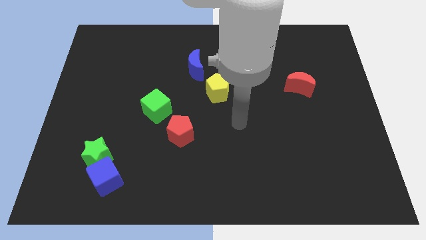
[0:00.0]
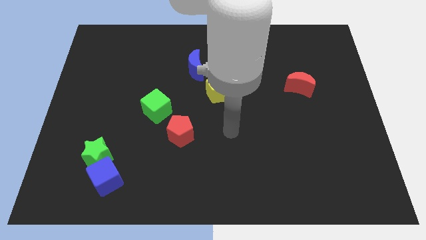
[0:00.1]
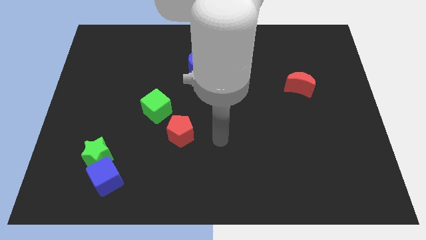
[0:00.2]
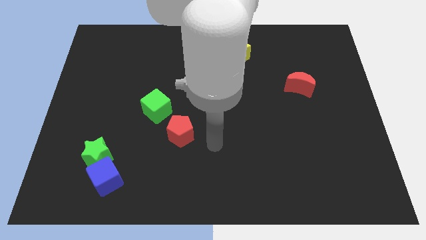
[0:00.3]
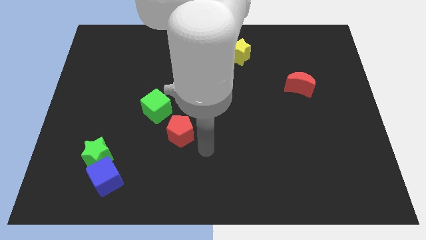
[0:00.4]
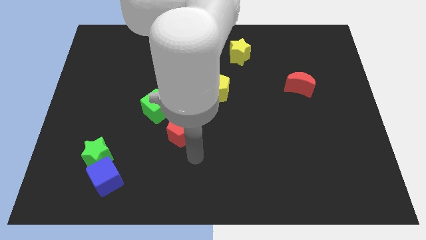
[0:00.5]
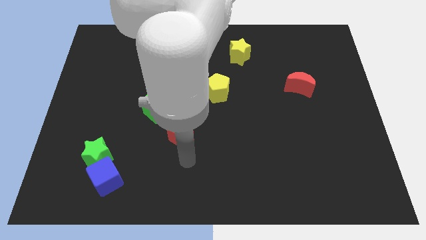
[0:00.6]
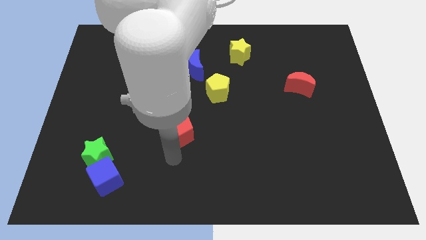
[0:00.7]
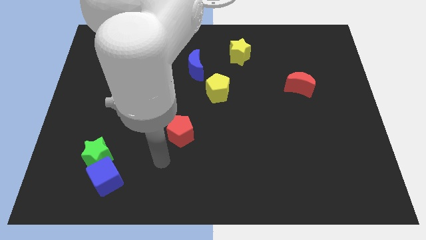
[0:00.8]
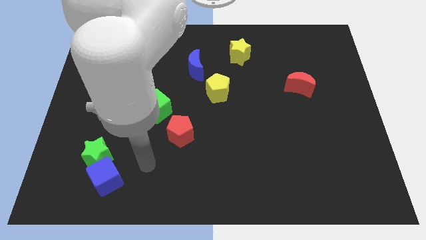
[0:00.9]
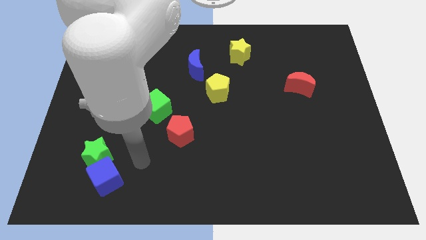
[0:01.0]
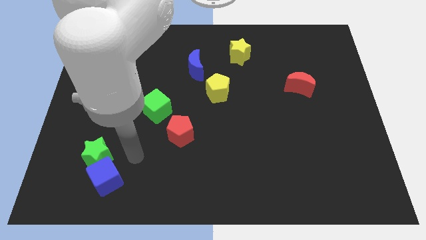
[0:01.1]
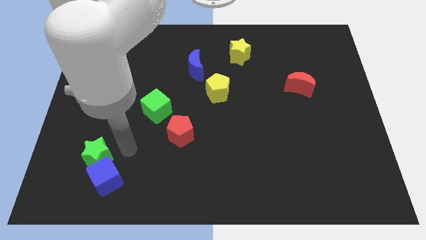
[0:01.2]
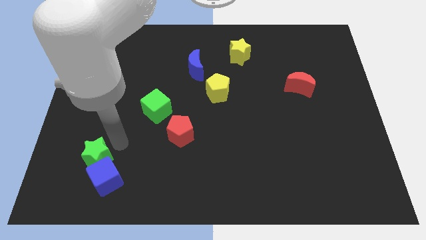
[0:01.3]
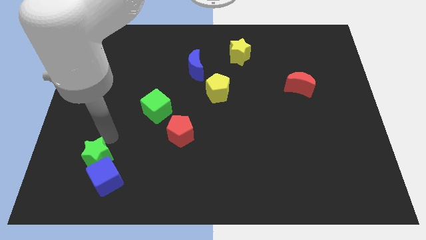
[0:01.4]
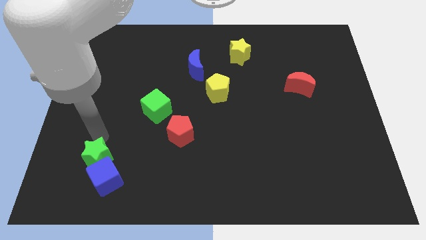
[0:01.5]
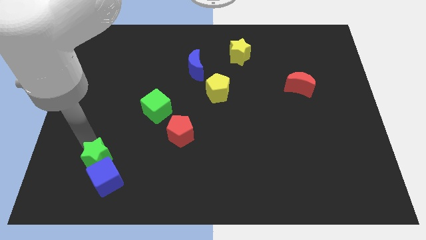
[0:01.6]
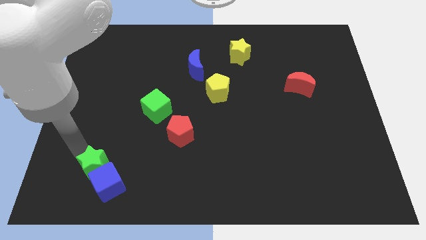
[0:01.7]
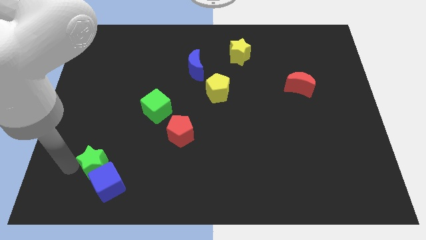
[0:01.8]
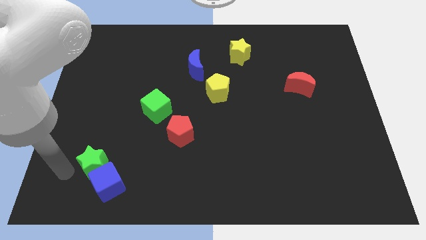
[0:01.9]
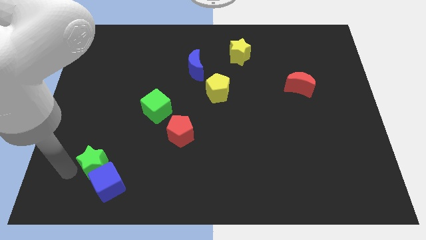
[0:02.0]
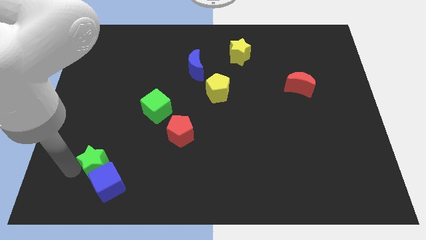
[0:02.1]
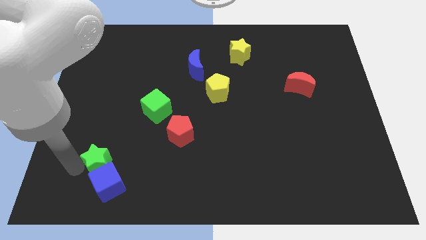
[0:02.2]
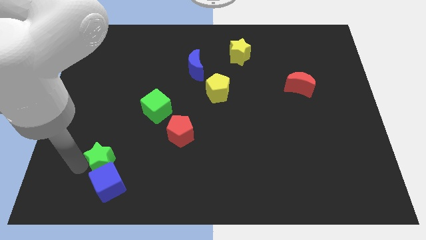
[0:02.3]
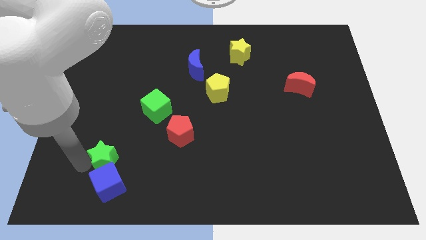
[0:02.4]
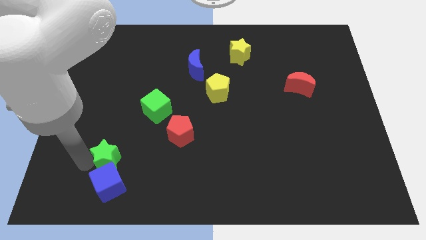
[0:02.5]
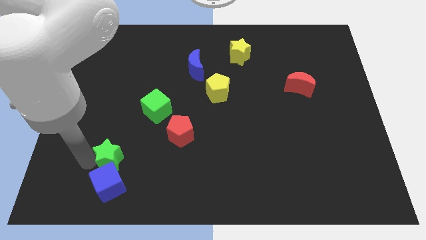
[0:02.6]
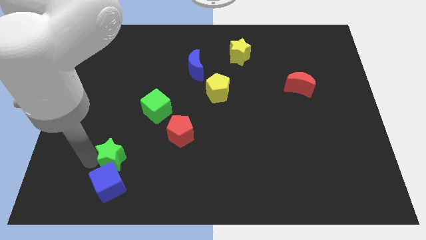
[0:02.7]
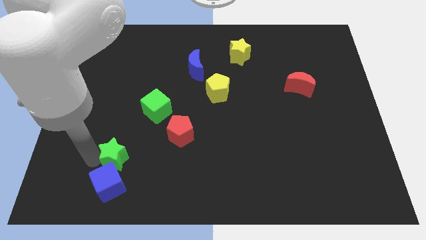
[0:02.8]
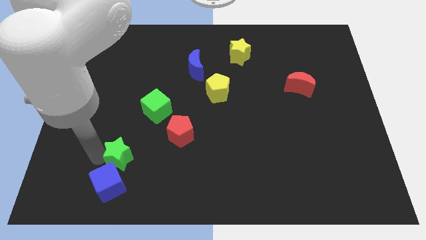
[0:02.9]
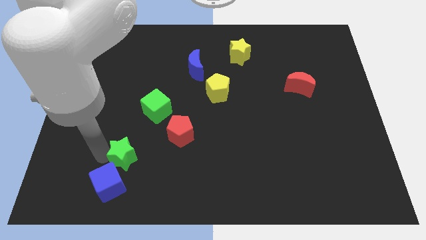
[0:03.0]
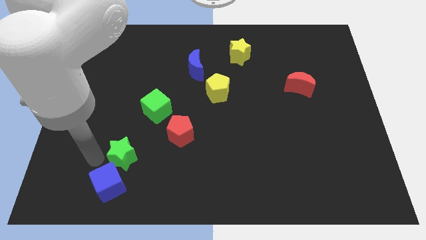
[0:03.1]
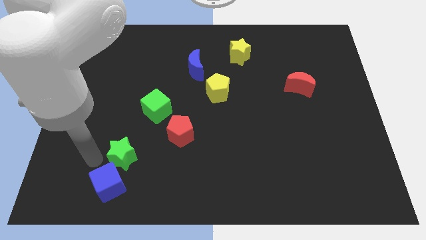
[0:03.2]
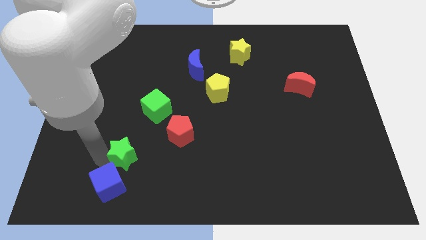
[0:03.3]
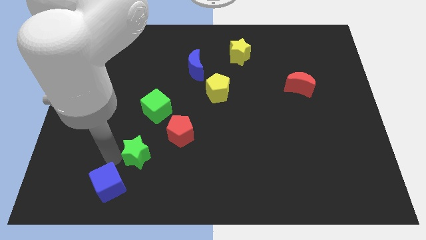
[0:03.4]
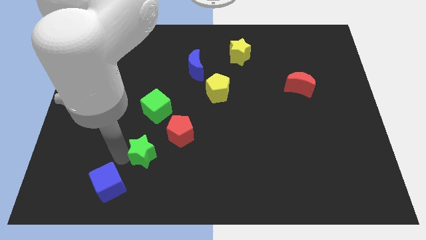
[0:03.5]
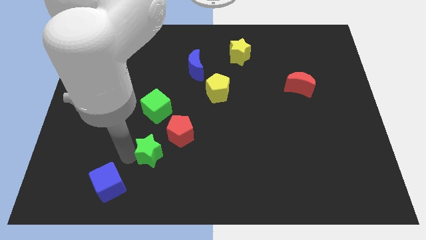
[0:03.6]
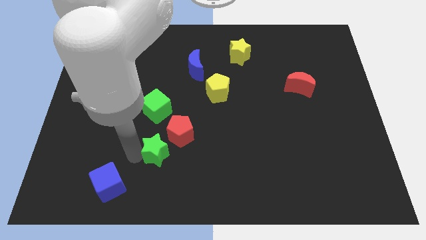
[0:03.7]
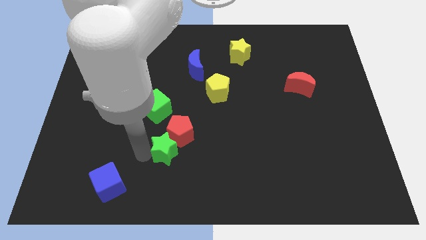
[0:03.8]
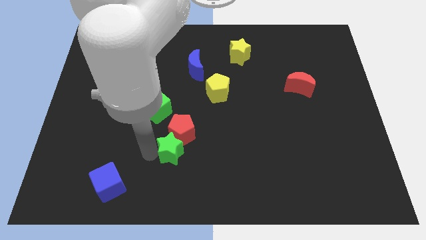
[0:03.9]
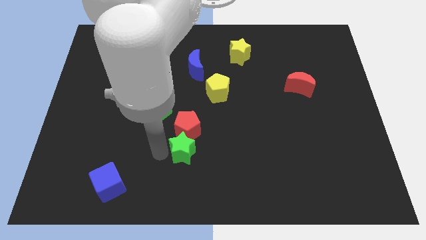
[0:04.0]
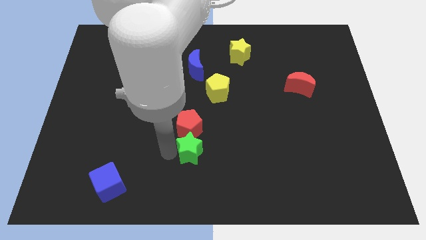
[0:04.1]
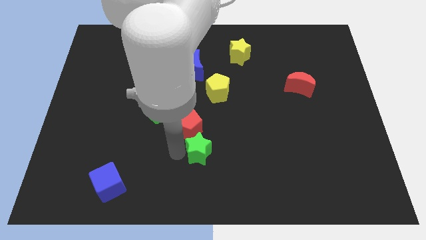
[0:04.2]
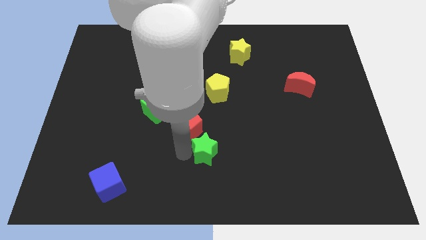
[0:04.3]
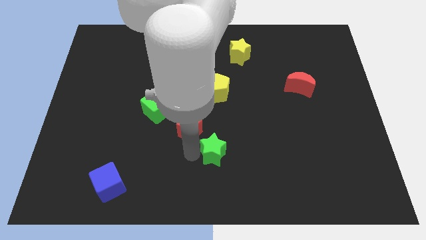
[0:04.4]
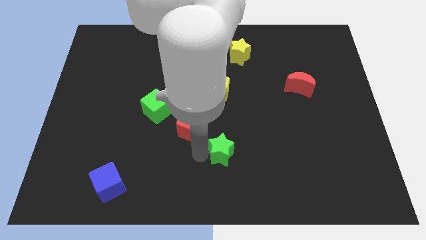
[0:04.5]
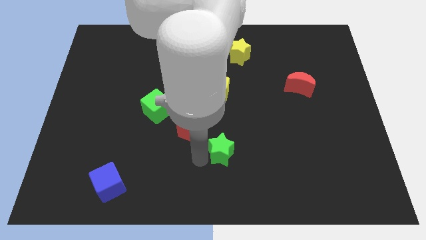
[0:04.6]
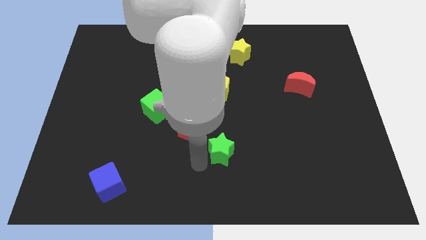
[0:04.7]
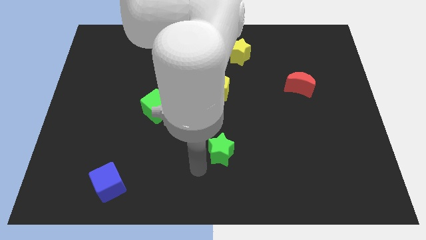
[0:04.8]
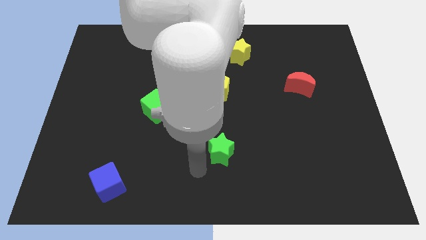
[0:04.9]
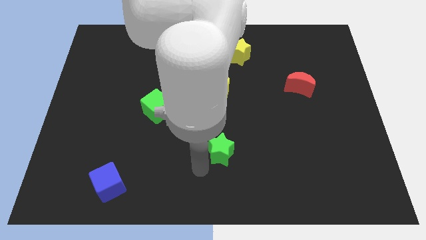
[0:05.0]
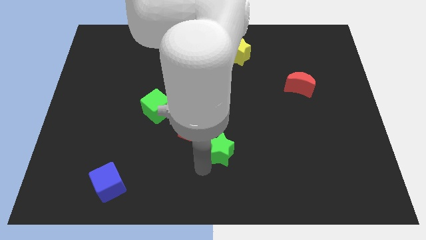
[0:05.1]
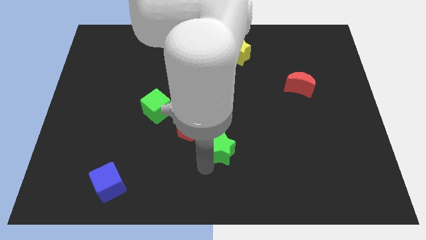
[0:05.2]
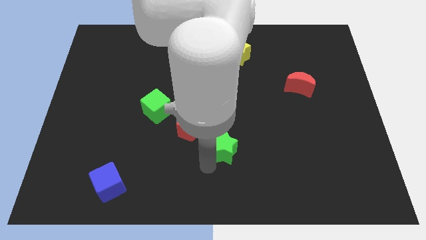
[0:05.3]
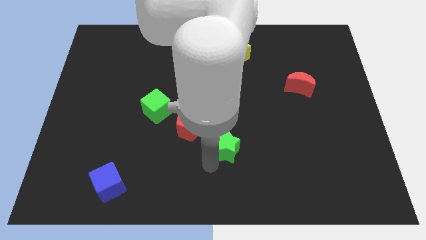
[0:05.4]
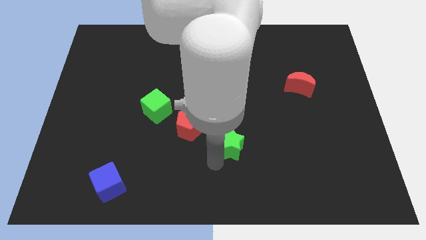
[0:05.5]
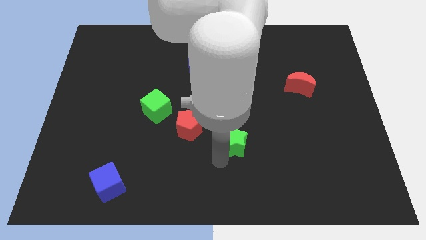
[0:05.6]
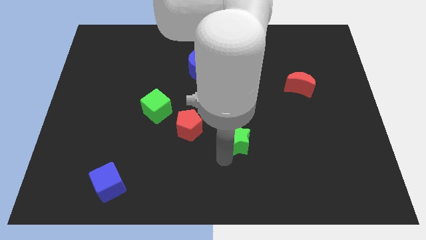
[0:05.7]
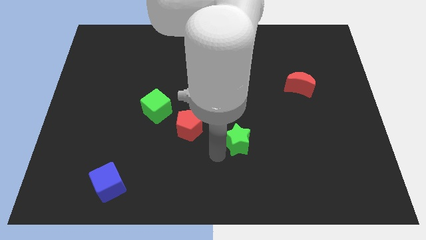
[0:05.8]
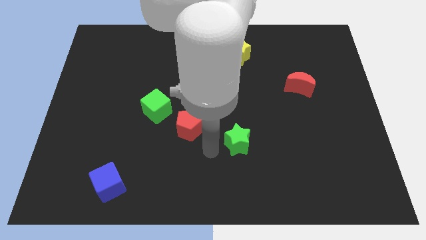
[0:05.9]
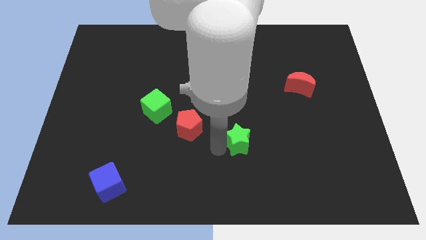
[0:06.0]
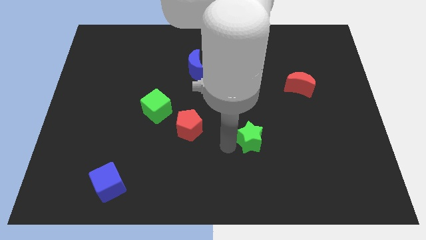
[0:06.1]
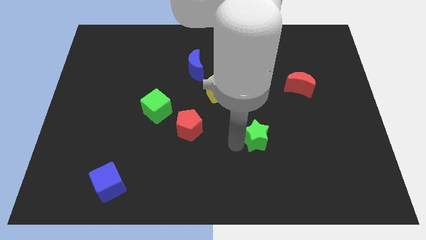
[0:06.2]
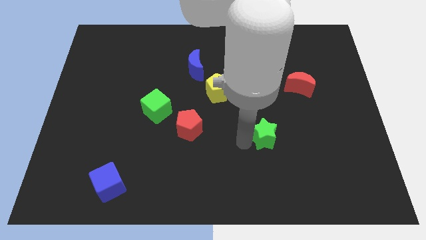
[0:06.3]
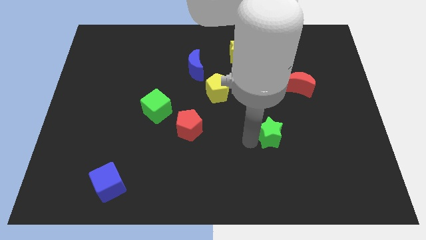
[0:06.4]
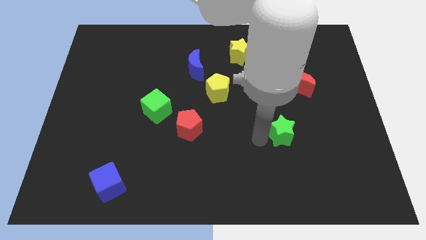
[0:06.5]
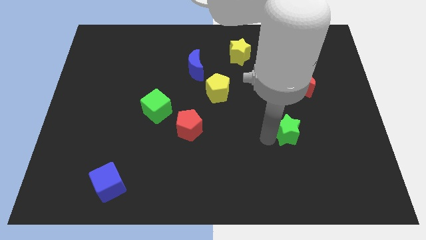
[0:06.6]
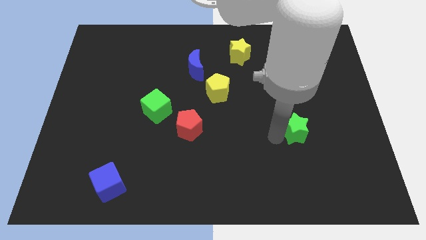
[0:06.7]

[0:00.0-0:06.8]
slide the green star to the bottom side of the red moon

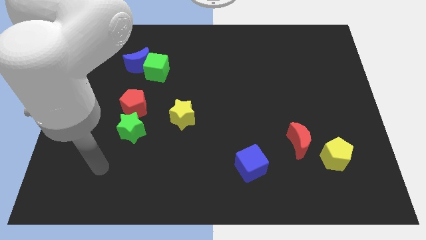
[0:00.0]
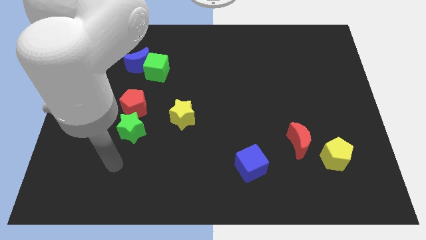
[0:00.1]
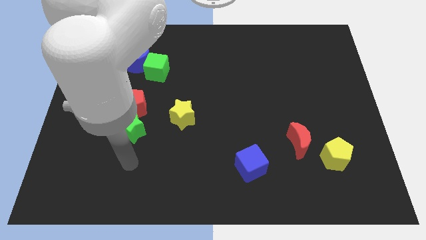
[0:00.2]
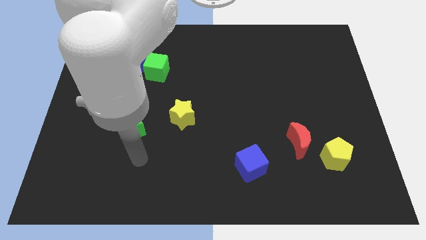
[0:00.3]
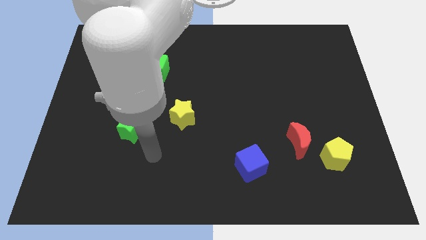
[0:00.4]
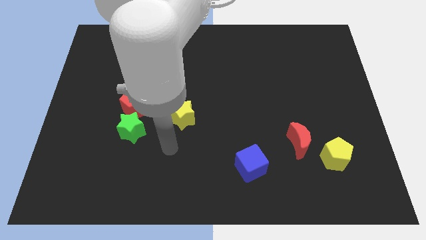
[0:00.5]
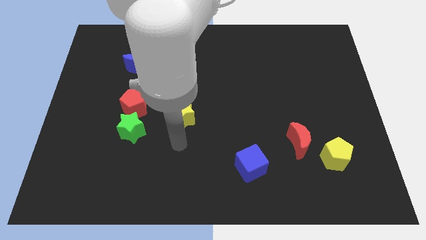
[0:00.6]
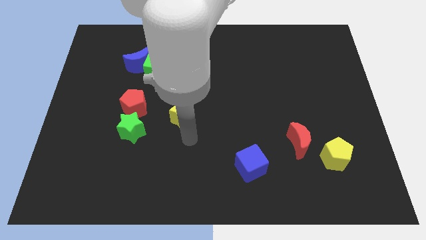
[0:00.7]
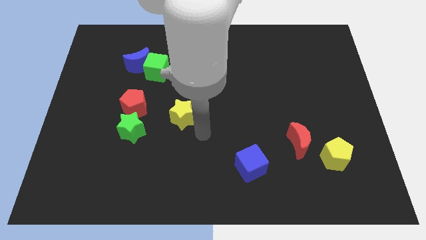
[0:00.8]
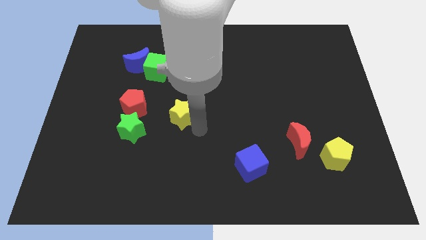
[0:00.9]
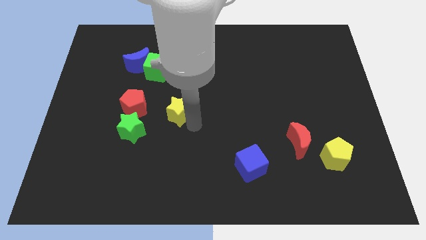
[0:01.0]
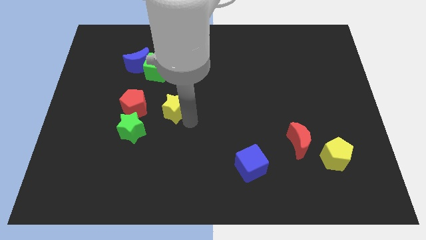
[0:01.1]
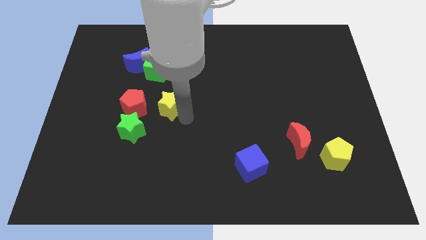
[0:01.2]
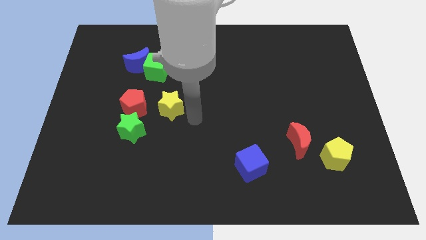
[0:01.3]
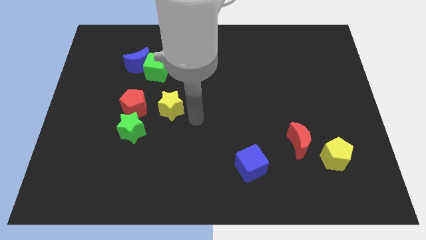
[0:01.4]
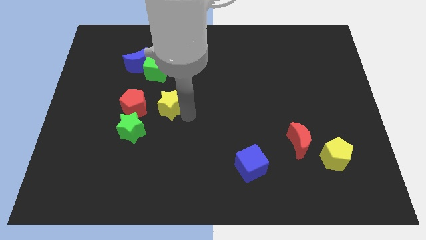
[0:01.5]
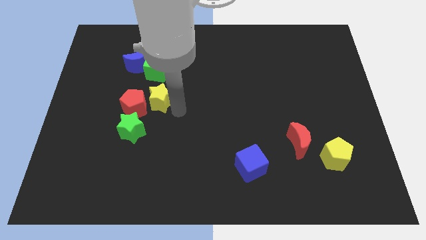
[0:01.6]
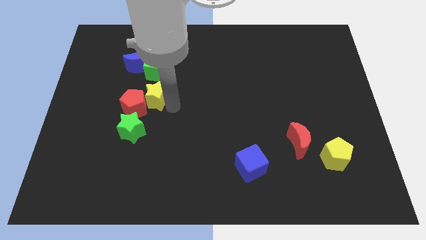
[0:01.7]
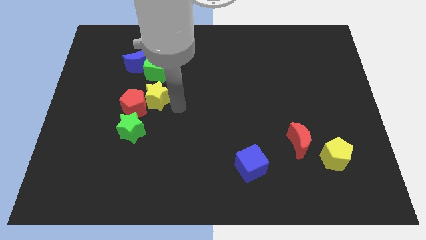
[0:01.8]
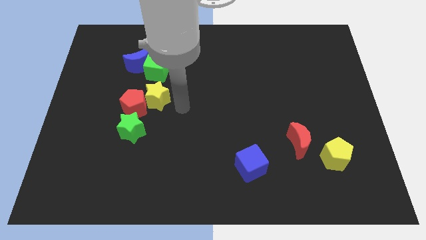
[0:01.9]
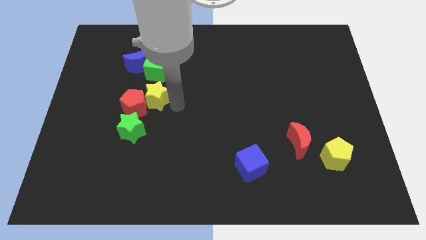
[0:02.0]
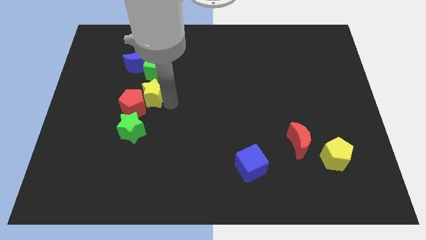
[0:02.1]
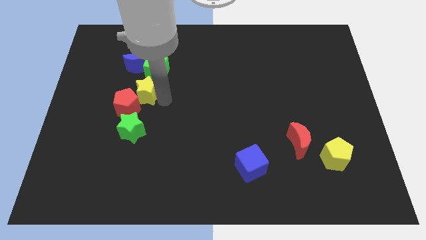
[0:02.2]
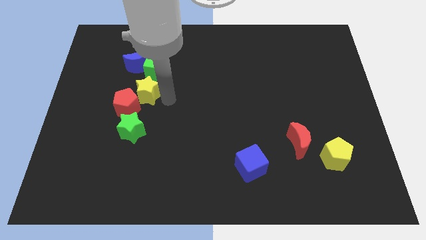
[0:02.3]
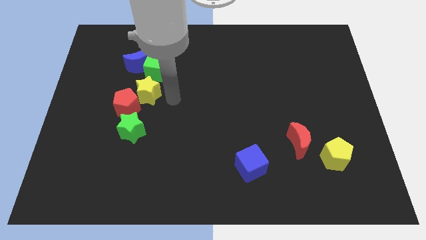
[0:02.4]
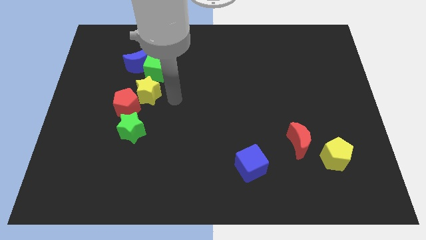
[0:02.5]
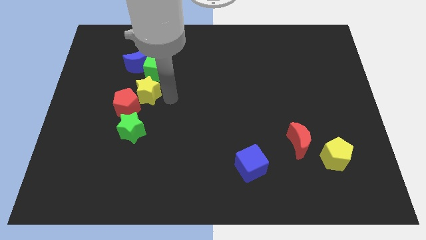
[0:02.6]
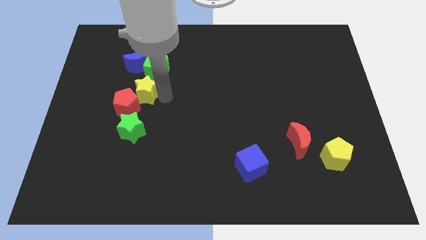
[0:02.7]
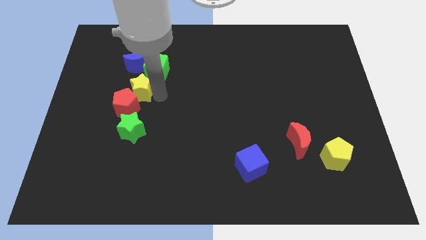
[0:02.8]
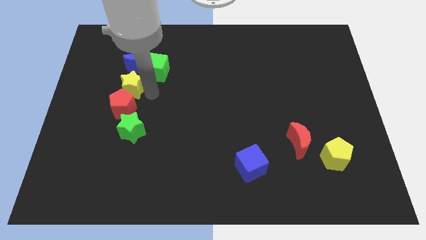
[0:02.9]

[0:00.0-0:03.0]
slide the yellow star diagonally down and to the left of the blue moon
